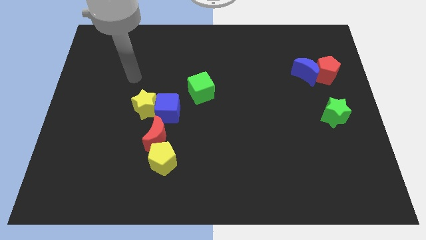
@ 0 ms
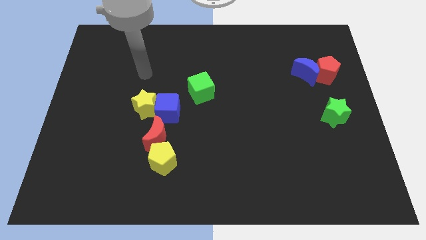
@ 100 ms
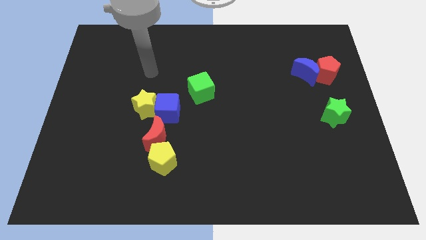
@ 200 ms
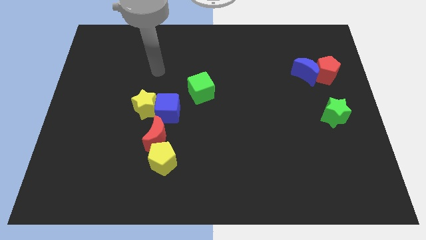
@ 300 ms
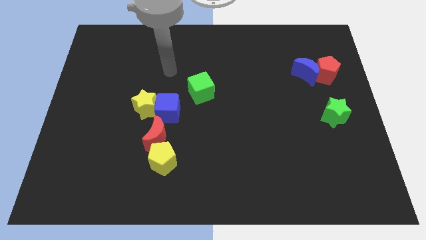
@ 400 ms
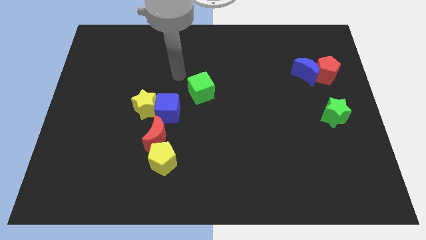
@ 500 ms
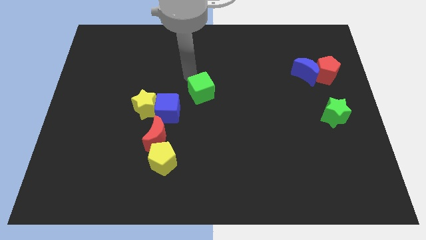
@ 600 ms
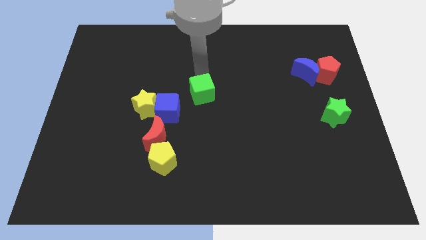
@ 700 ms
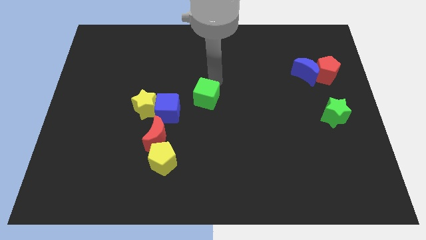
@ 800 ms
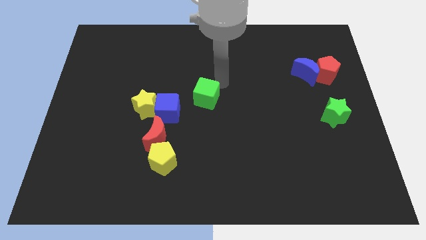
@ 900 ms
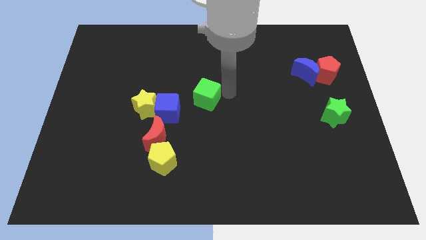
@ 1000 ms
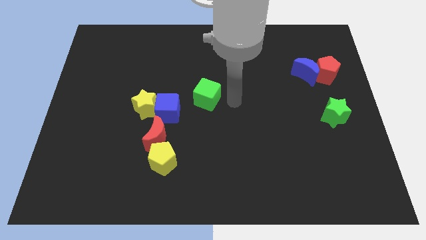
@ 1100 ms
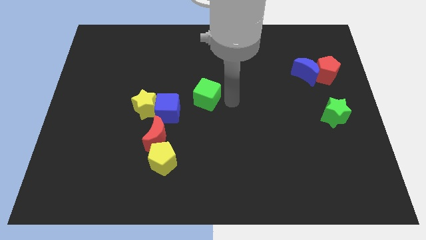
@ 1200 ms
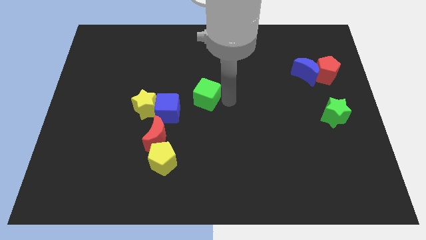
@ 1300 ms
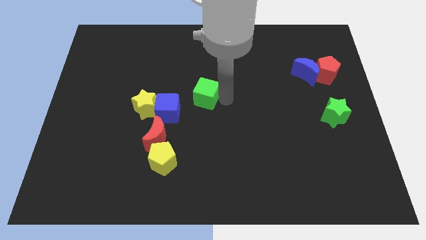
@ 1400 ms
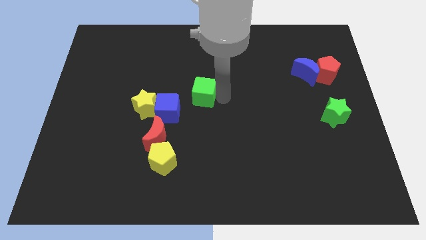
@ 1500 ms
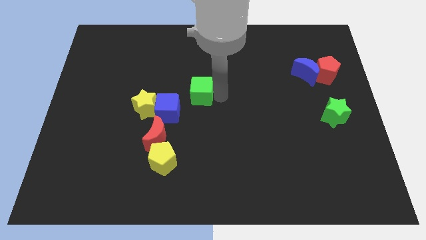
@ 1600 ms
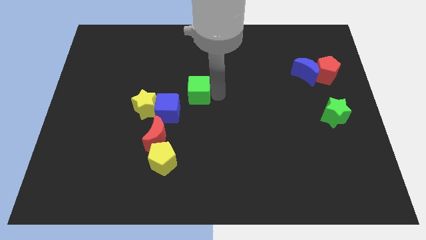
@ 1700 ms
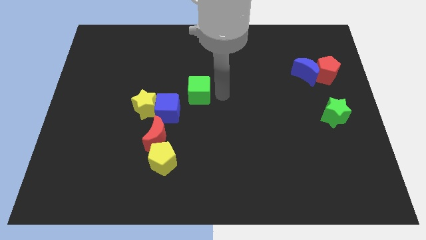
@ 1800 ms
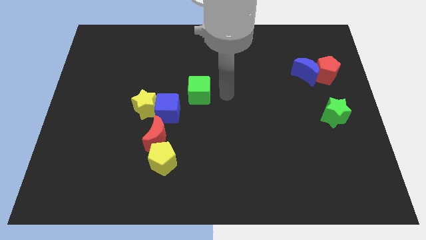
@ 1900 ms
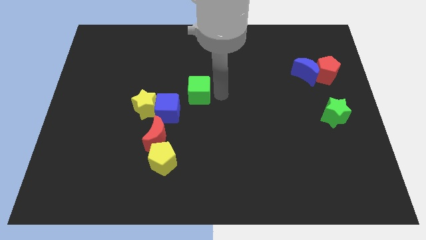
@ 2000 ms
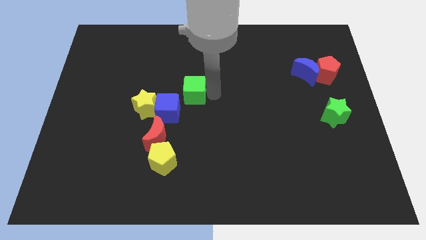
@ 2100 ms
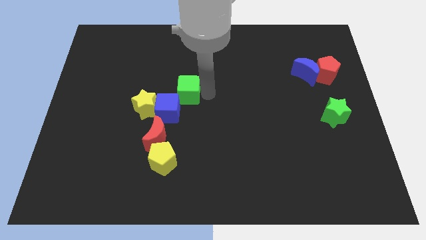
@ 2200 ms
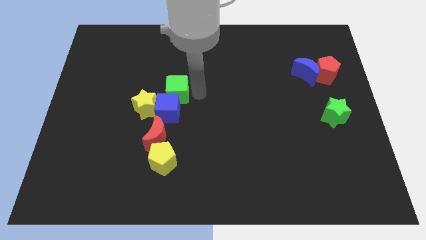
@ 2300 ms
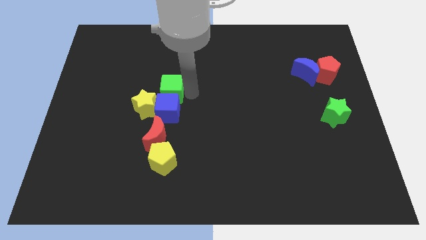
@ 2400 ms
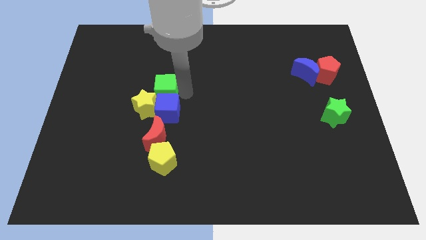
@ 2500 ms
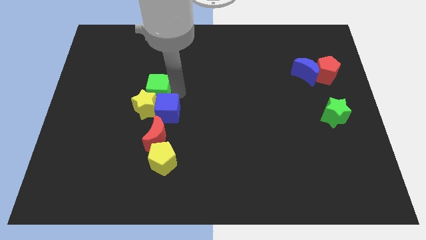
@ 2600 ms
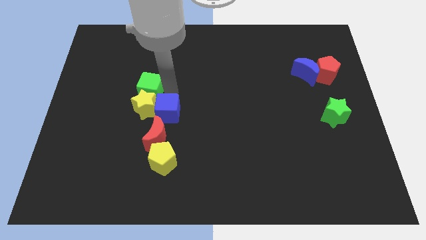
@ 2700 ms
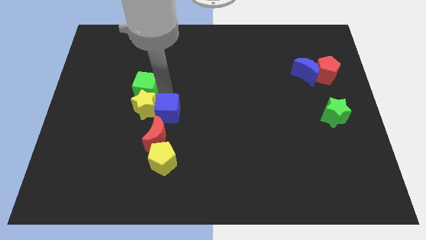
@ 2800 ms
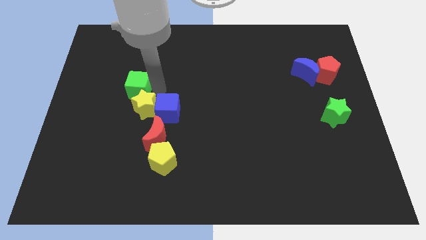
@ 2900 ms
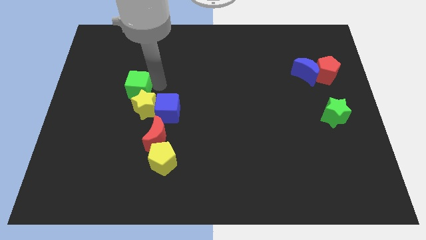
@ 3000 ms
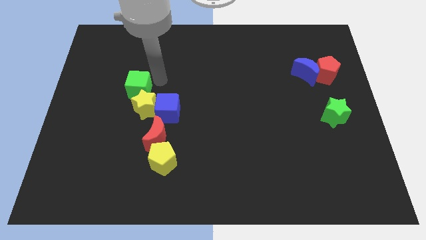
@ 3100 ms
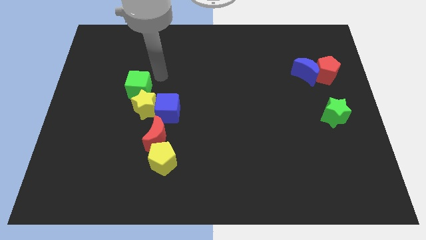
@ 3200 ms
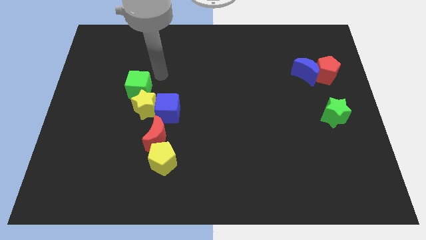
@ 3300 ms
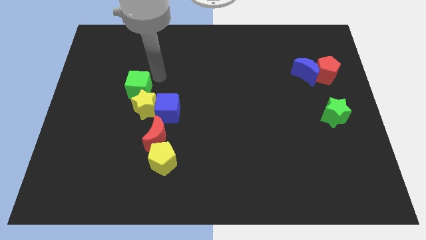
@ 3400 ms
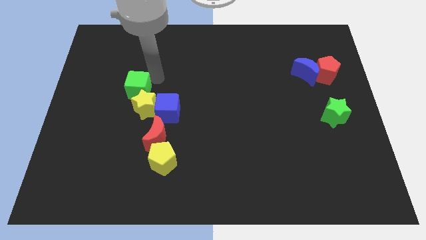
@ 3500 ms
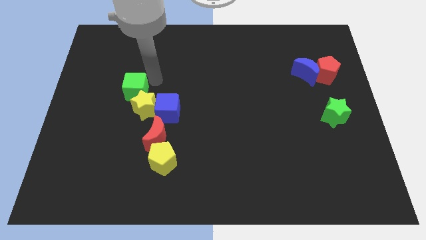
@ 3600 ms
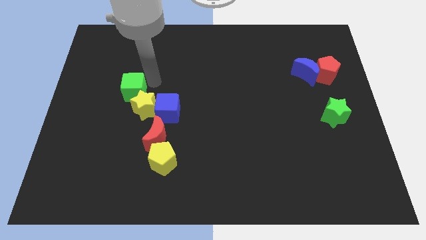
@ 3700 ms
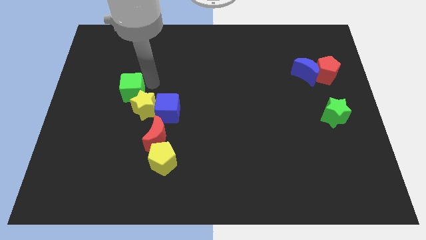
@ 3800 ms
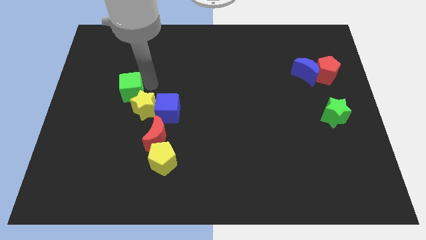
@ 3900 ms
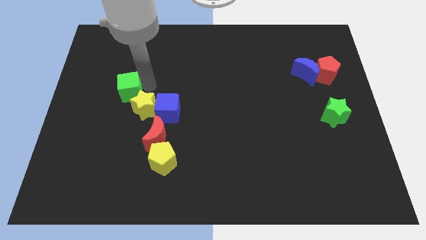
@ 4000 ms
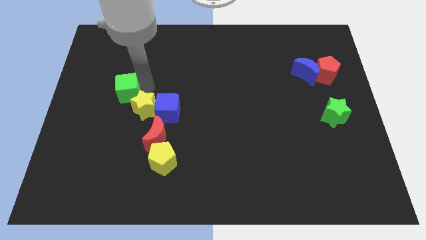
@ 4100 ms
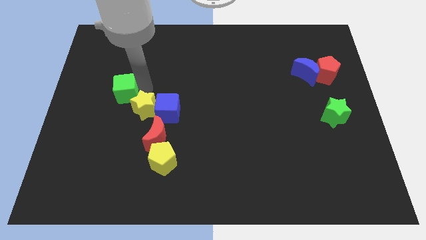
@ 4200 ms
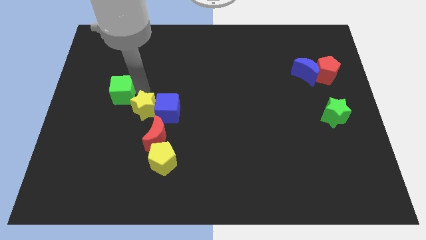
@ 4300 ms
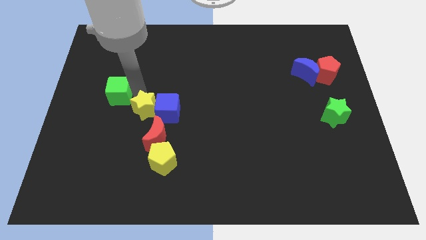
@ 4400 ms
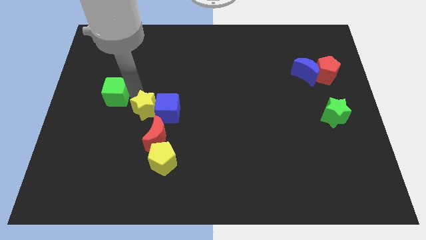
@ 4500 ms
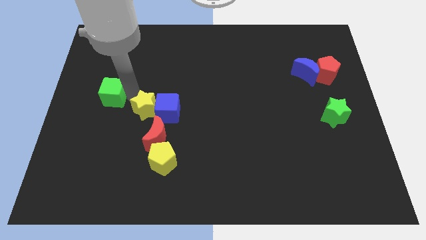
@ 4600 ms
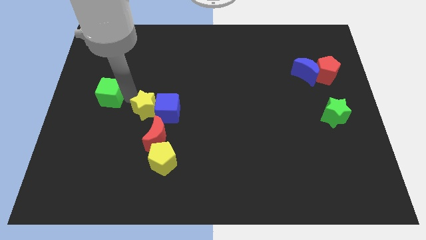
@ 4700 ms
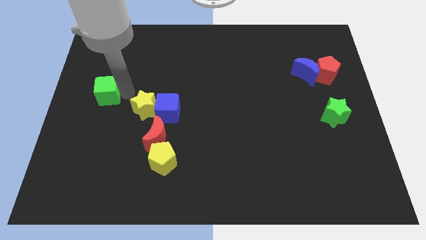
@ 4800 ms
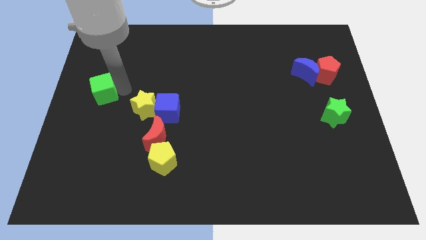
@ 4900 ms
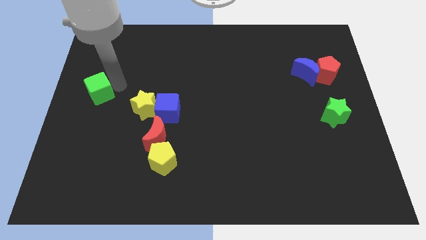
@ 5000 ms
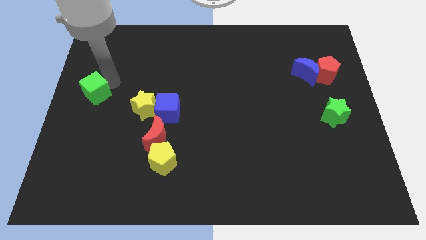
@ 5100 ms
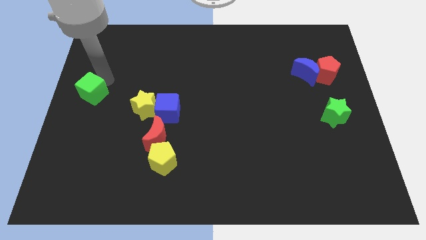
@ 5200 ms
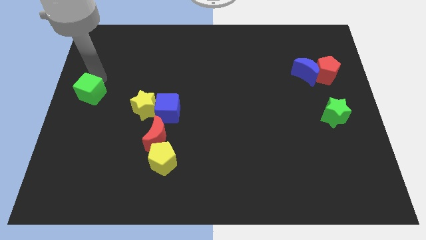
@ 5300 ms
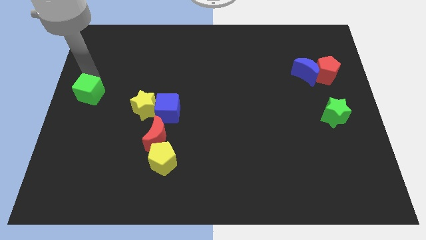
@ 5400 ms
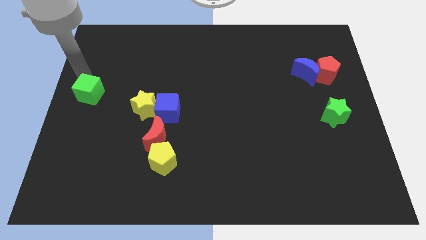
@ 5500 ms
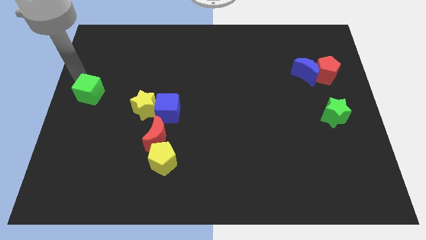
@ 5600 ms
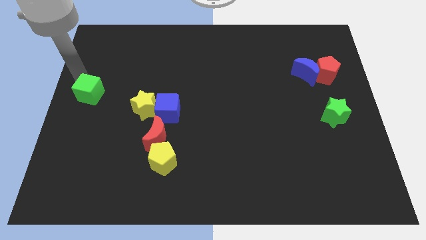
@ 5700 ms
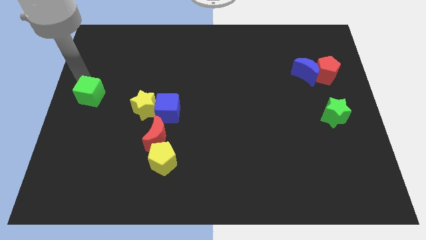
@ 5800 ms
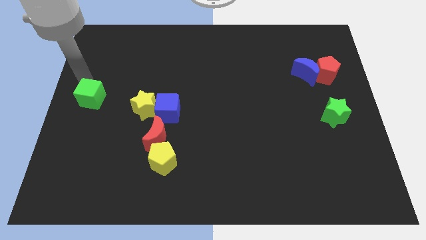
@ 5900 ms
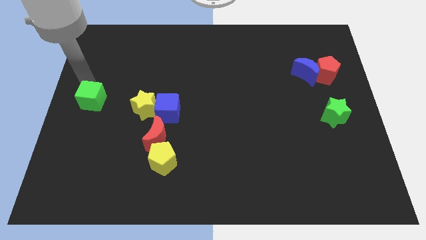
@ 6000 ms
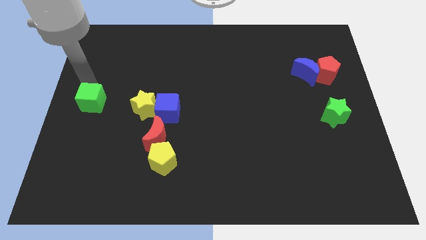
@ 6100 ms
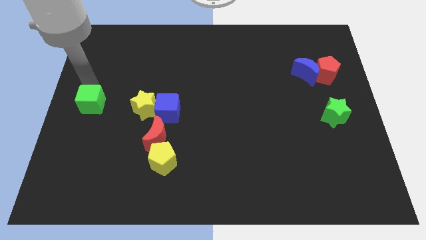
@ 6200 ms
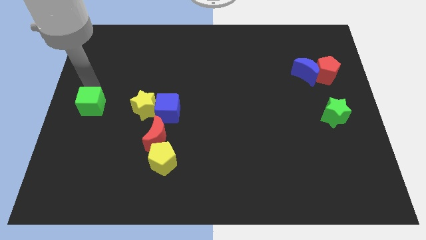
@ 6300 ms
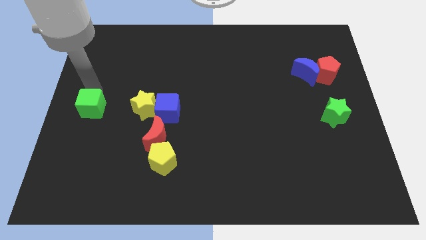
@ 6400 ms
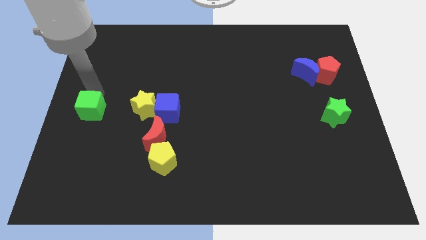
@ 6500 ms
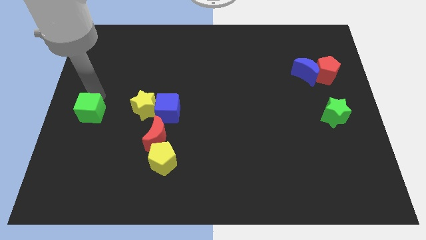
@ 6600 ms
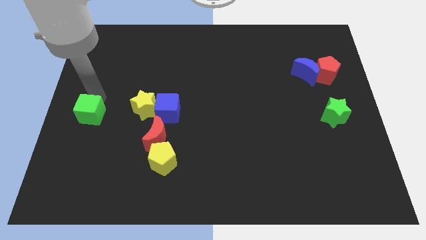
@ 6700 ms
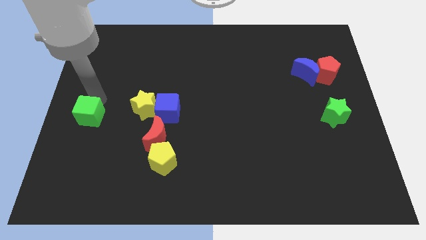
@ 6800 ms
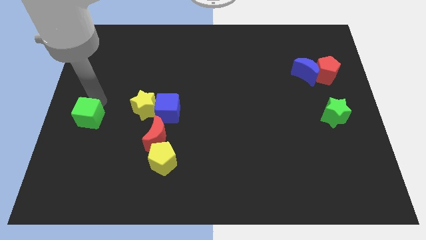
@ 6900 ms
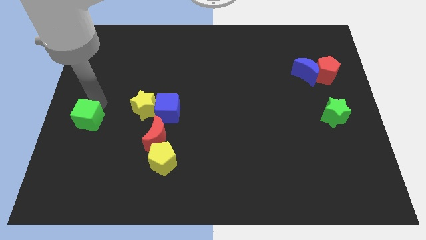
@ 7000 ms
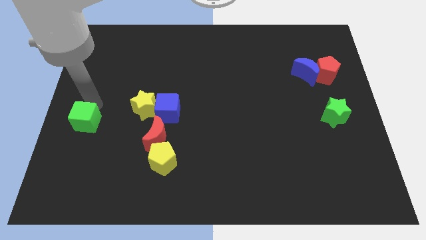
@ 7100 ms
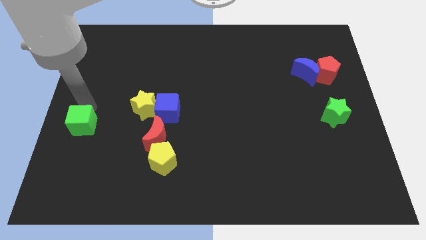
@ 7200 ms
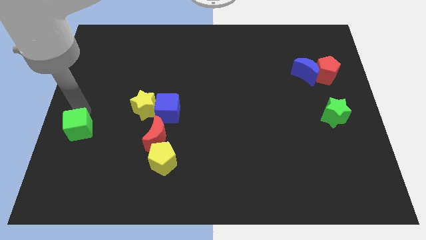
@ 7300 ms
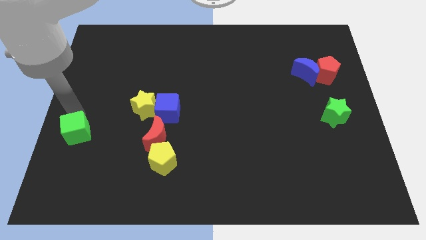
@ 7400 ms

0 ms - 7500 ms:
move the green cube diagonally down and to the left

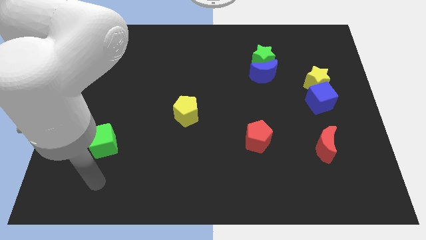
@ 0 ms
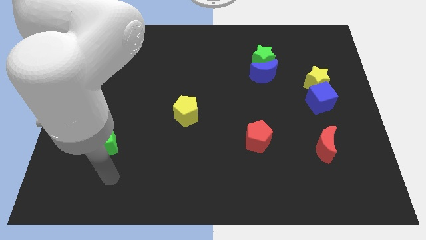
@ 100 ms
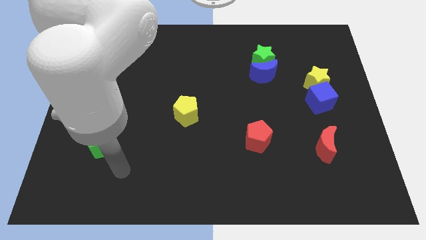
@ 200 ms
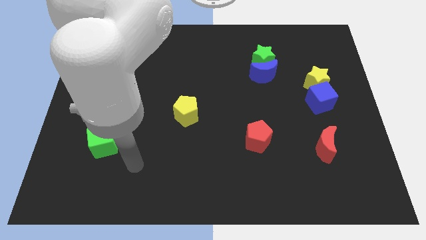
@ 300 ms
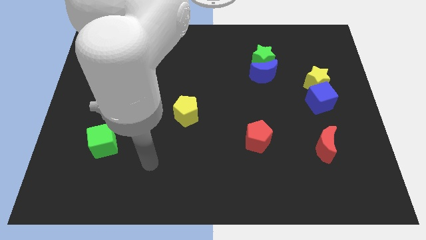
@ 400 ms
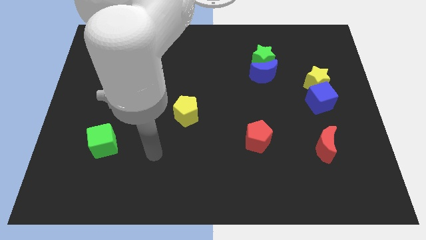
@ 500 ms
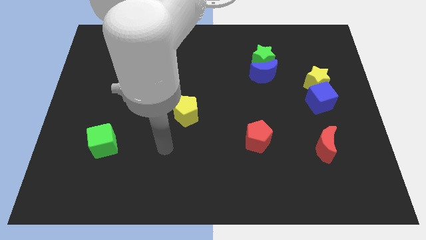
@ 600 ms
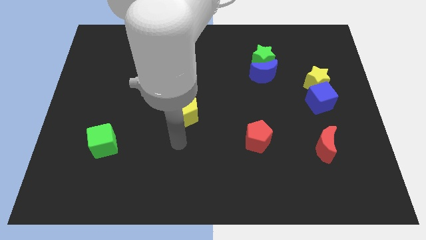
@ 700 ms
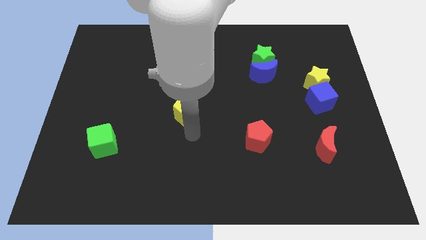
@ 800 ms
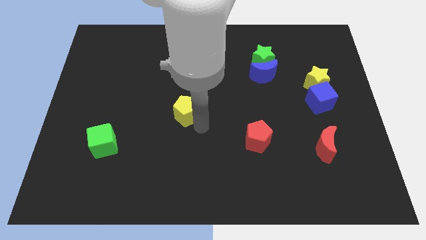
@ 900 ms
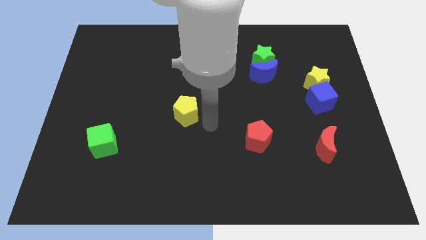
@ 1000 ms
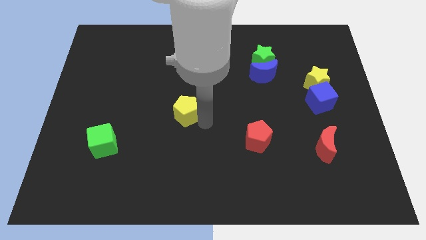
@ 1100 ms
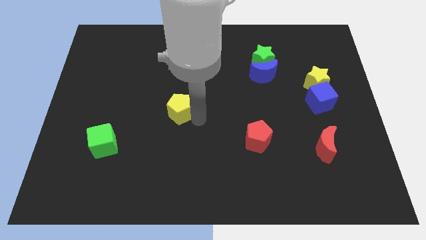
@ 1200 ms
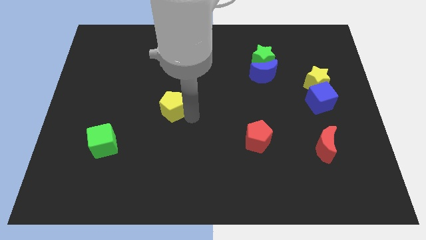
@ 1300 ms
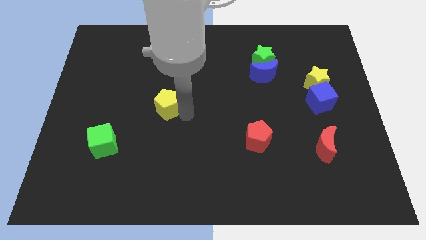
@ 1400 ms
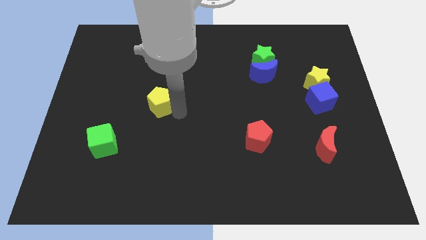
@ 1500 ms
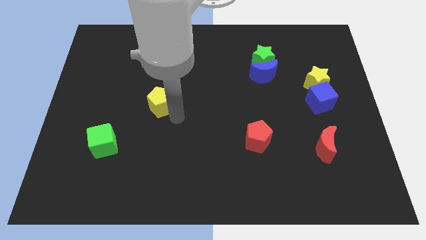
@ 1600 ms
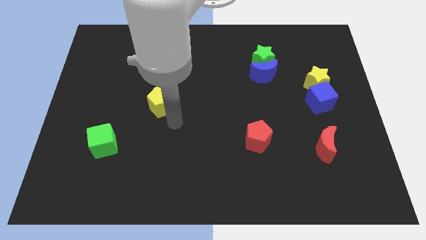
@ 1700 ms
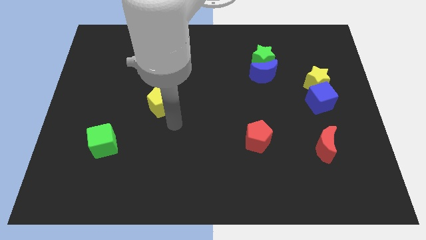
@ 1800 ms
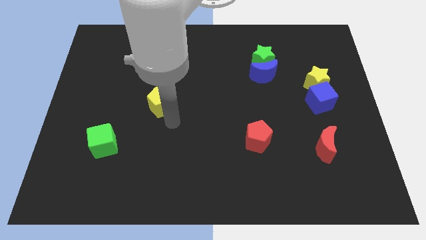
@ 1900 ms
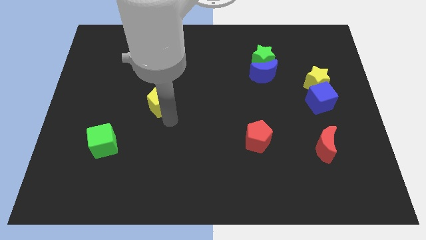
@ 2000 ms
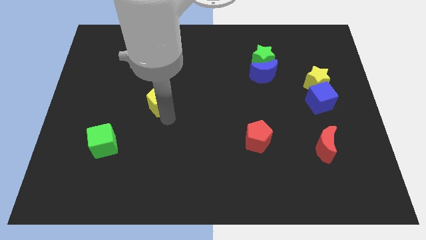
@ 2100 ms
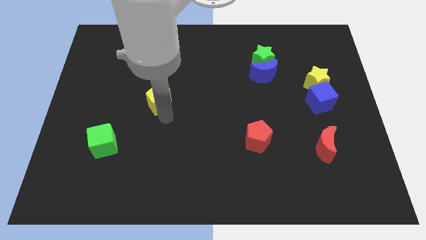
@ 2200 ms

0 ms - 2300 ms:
slightly move the yellow pentagon up and to the left diagonally
